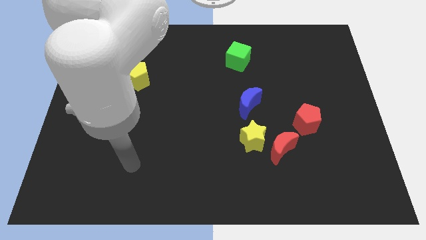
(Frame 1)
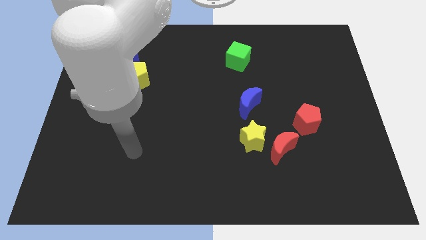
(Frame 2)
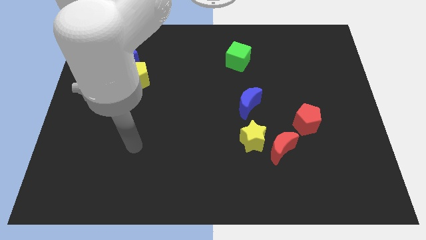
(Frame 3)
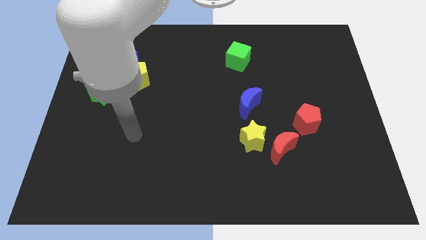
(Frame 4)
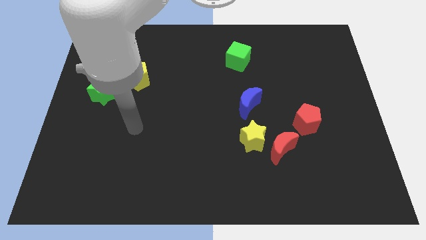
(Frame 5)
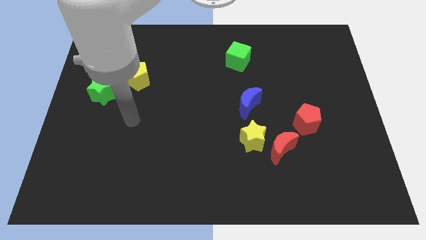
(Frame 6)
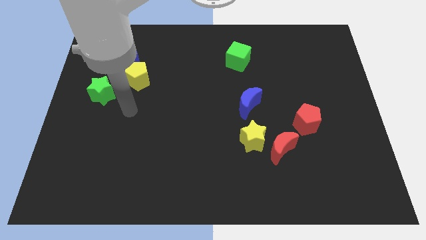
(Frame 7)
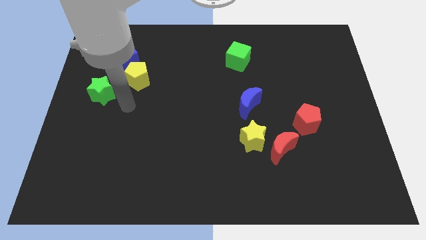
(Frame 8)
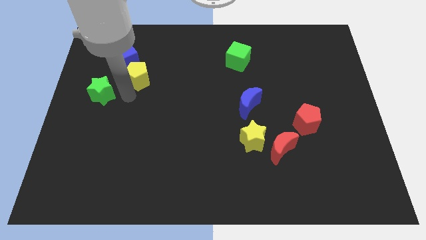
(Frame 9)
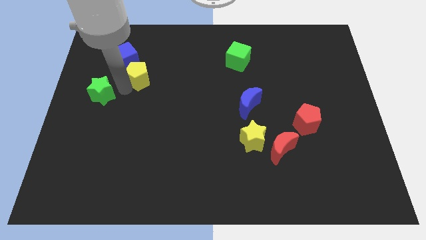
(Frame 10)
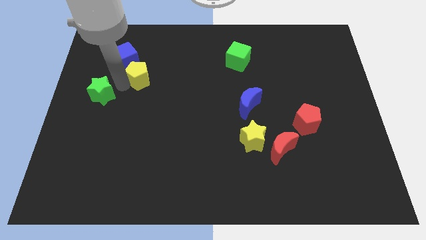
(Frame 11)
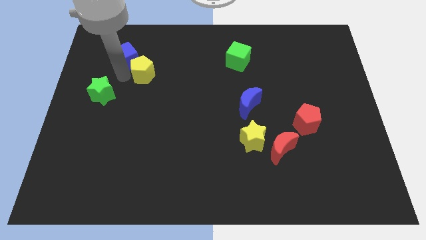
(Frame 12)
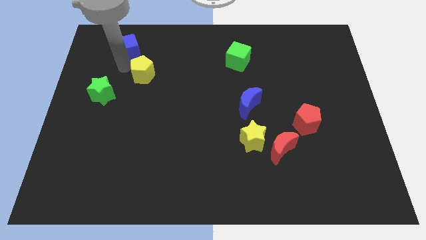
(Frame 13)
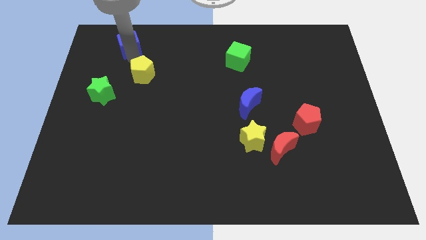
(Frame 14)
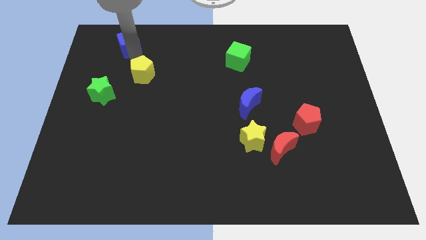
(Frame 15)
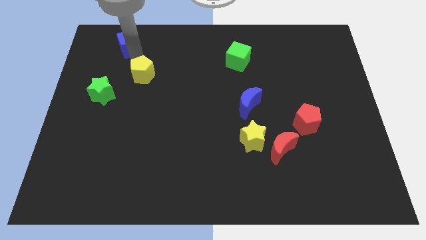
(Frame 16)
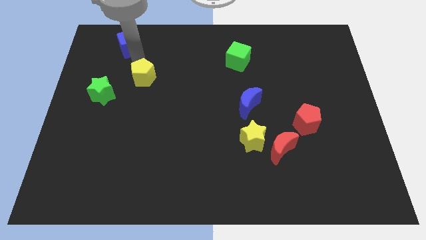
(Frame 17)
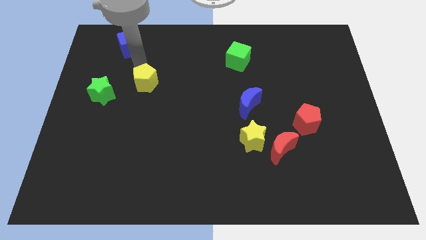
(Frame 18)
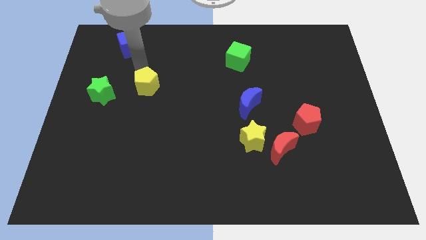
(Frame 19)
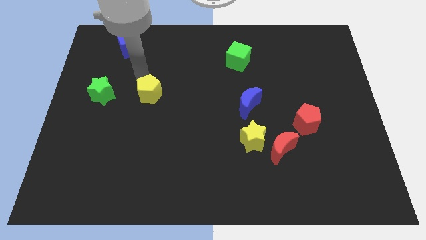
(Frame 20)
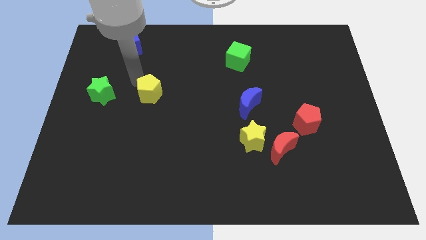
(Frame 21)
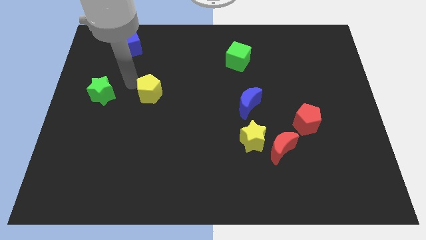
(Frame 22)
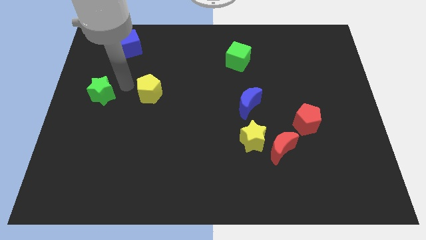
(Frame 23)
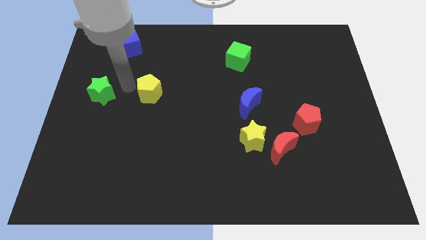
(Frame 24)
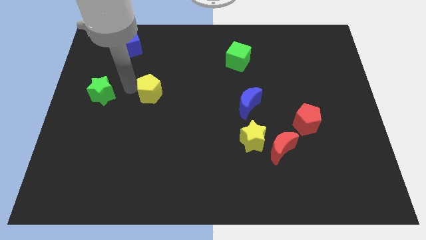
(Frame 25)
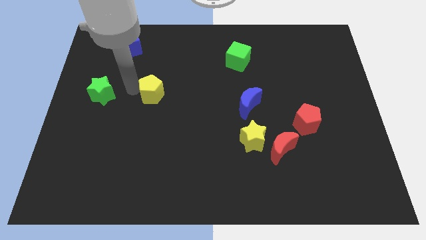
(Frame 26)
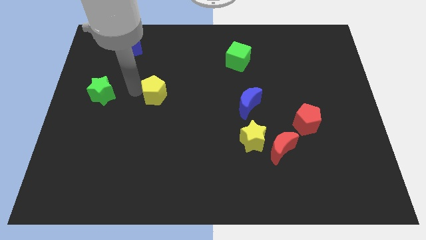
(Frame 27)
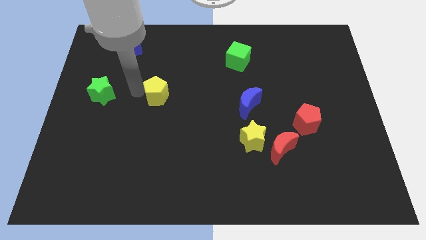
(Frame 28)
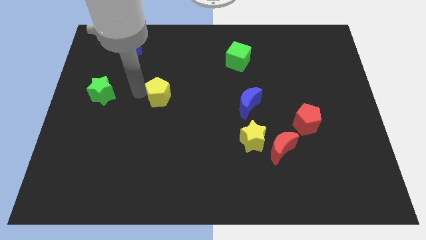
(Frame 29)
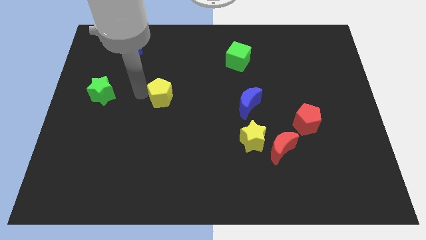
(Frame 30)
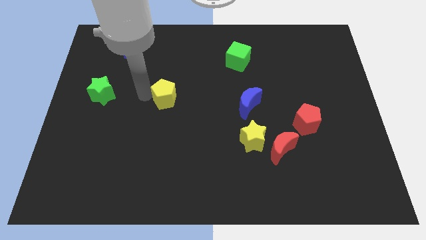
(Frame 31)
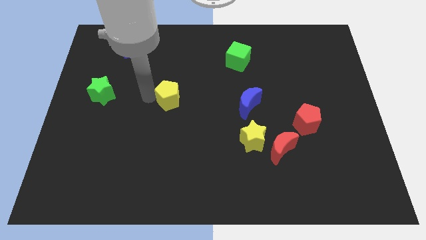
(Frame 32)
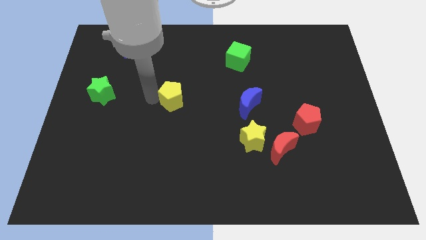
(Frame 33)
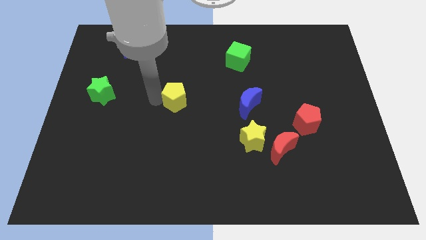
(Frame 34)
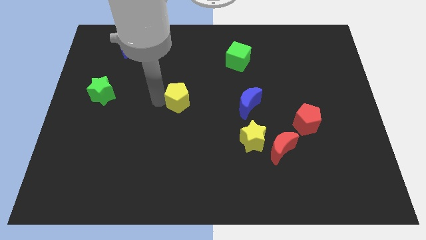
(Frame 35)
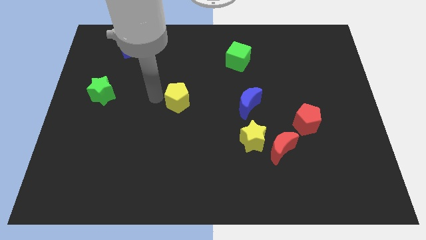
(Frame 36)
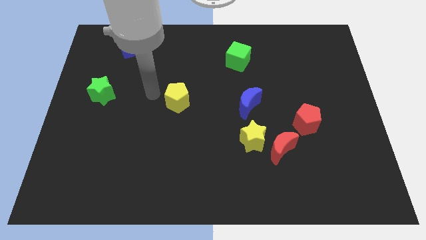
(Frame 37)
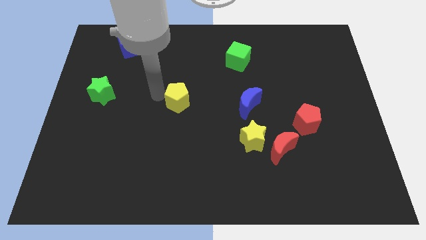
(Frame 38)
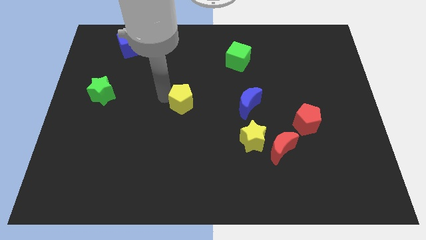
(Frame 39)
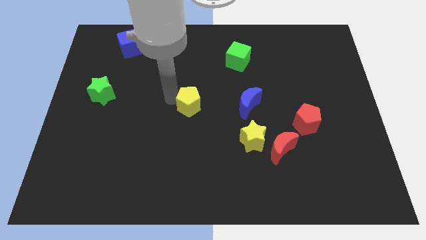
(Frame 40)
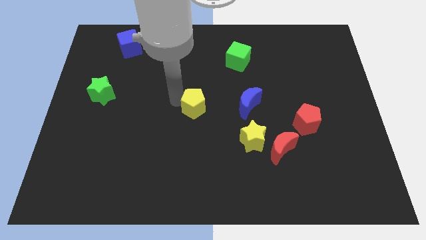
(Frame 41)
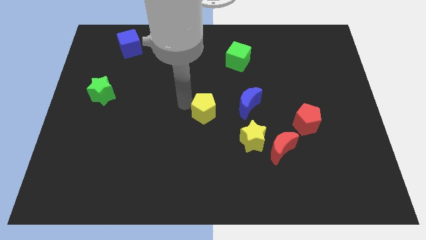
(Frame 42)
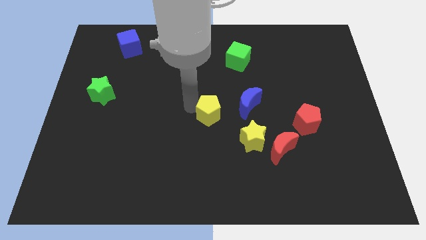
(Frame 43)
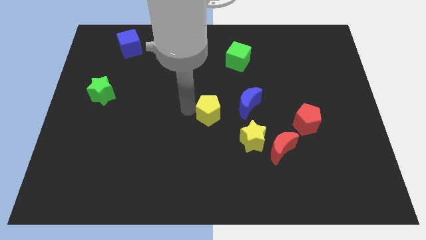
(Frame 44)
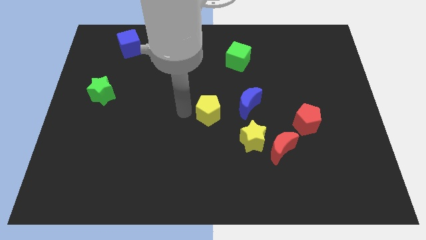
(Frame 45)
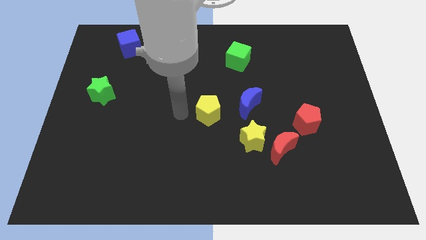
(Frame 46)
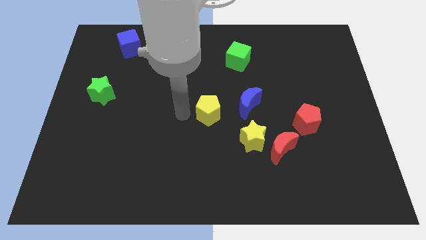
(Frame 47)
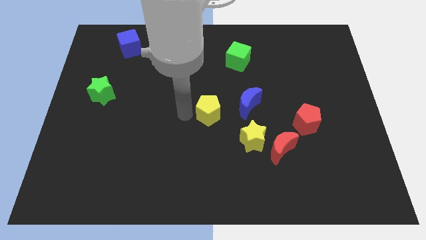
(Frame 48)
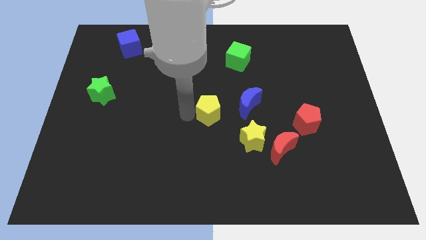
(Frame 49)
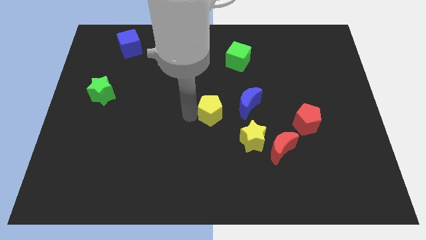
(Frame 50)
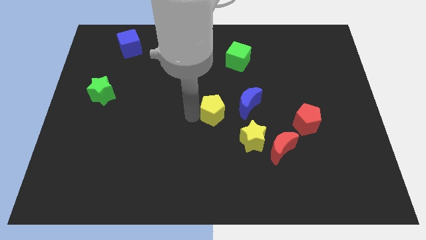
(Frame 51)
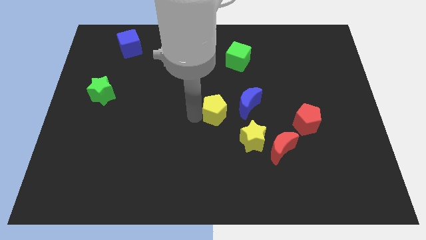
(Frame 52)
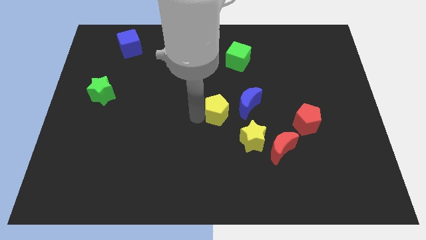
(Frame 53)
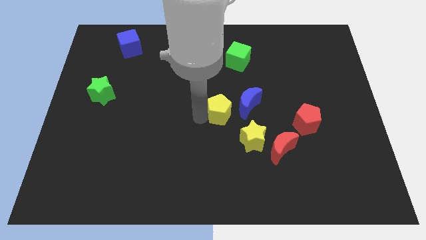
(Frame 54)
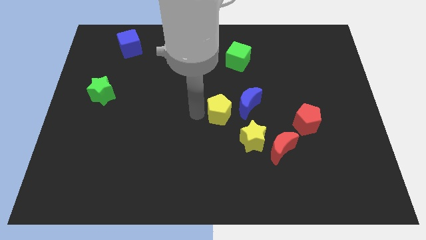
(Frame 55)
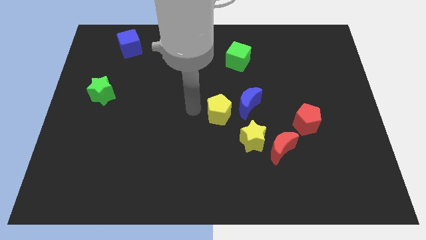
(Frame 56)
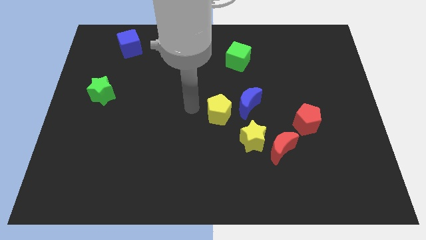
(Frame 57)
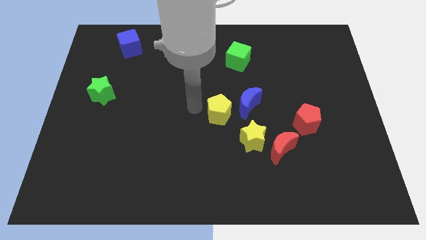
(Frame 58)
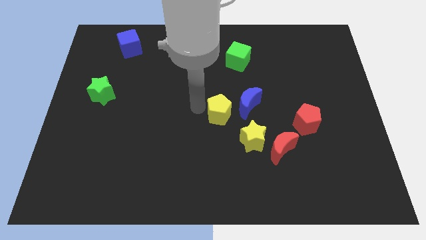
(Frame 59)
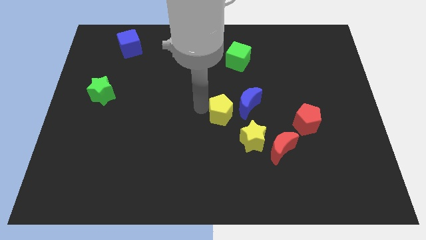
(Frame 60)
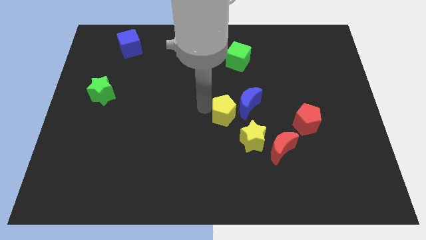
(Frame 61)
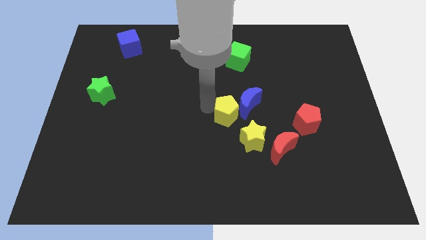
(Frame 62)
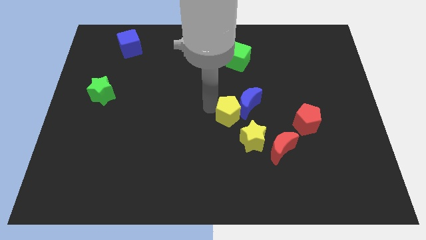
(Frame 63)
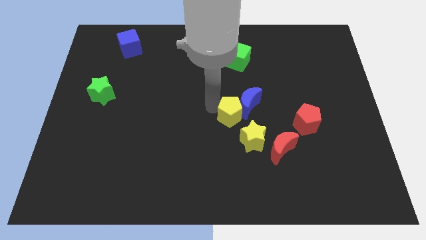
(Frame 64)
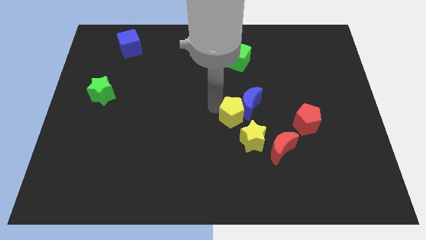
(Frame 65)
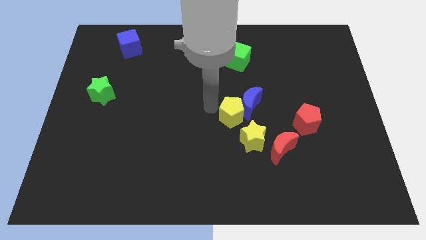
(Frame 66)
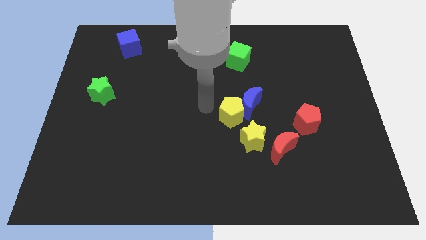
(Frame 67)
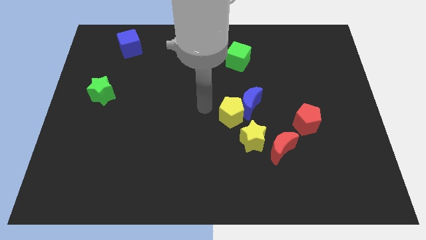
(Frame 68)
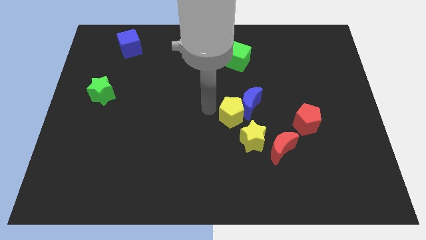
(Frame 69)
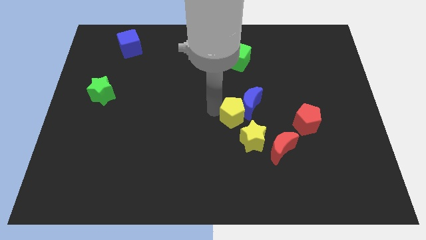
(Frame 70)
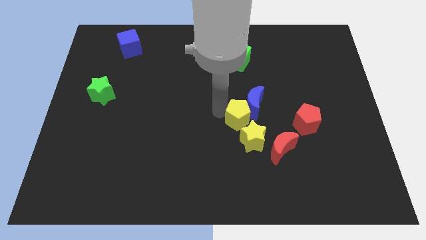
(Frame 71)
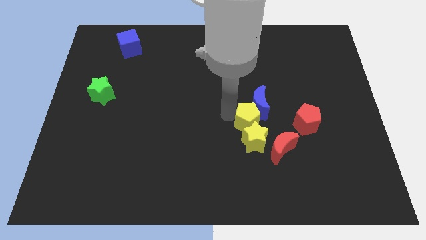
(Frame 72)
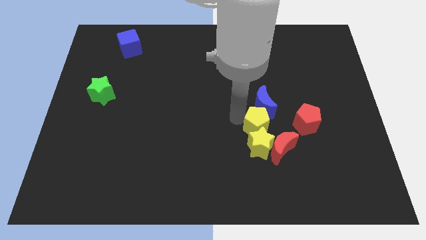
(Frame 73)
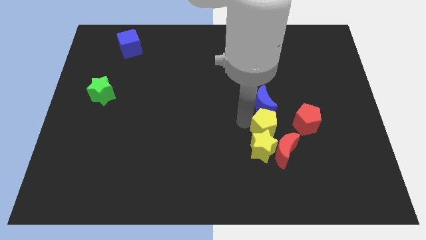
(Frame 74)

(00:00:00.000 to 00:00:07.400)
move the yellow pentagon to the bottom right side of the blue moon
